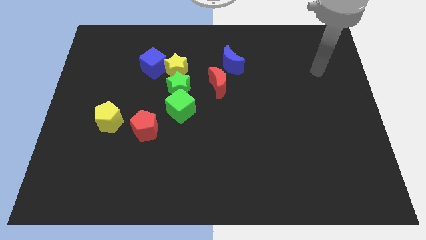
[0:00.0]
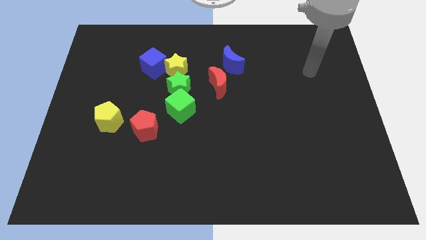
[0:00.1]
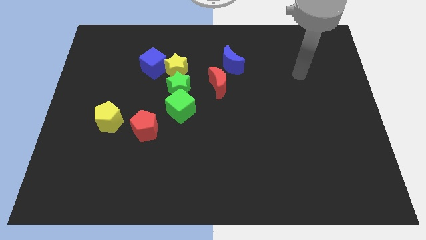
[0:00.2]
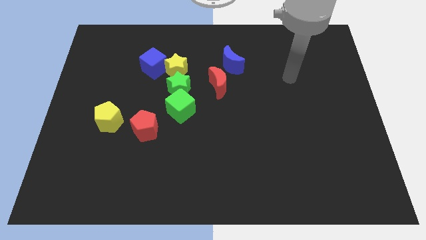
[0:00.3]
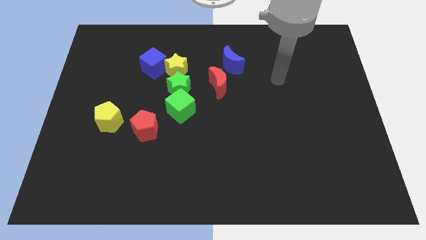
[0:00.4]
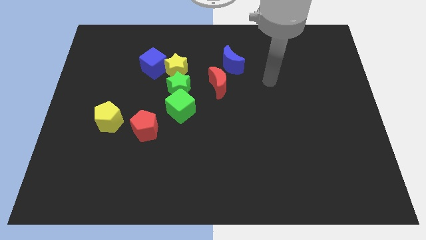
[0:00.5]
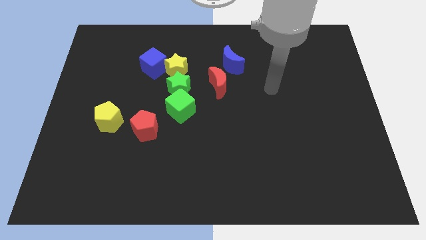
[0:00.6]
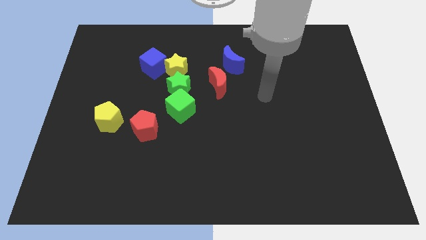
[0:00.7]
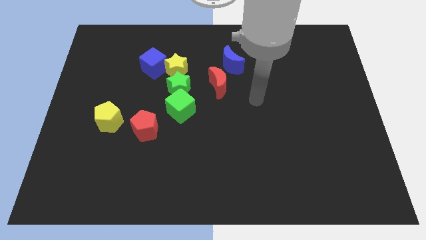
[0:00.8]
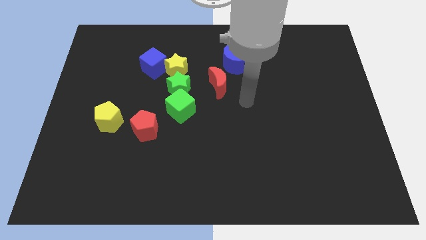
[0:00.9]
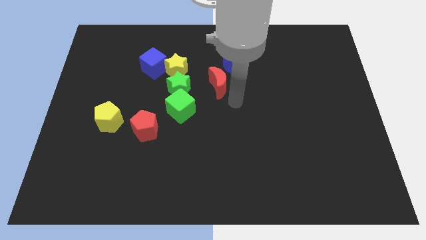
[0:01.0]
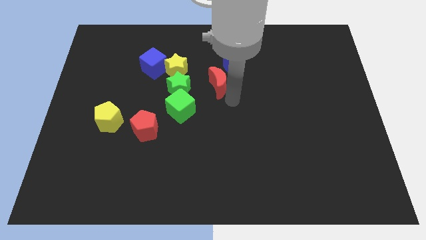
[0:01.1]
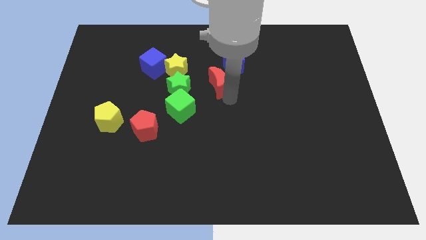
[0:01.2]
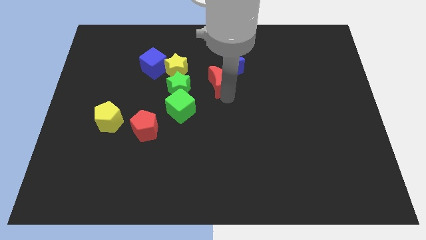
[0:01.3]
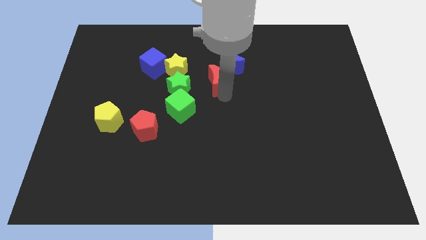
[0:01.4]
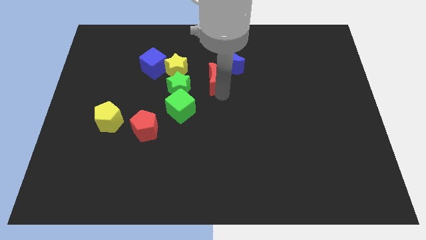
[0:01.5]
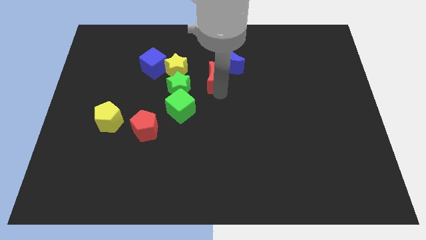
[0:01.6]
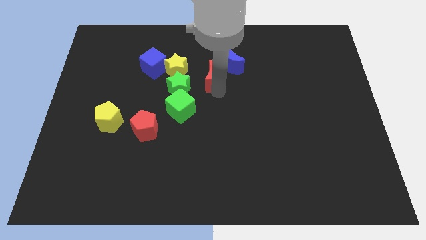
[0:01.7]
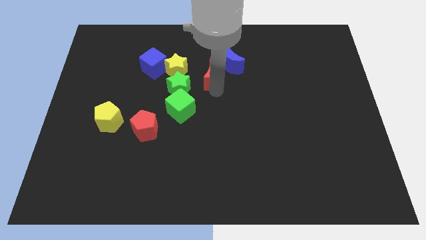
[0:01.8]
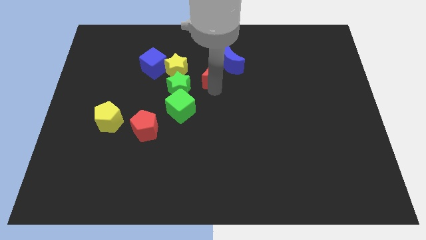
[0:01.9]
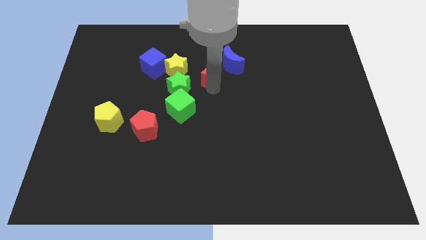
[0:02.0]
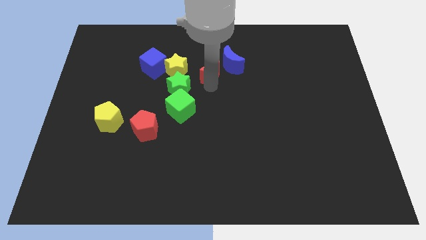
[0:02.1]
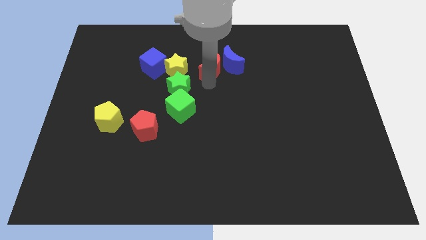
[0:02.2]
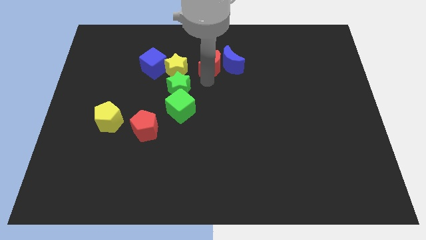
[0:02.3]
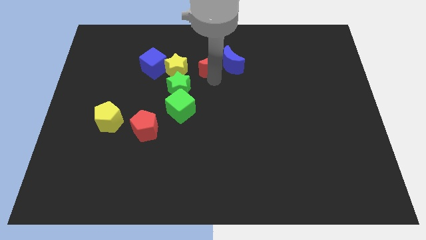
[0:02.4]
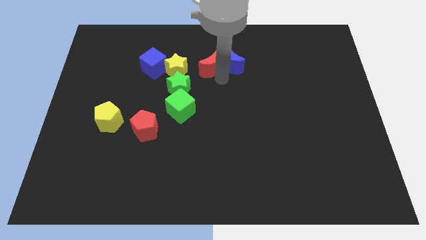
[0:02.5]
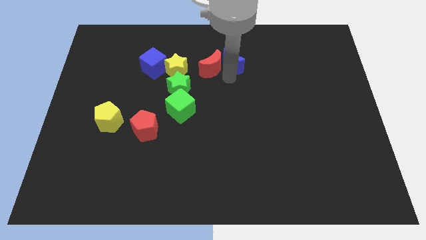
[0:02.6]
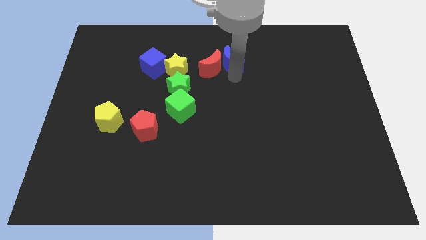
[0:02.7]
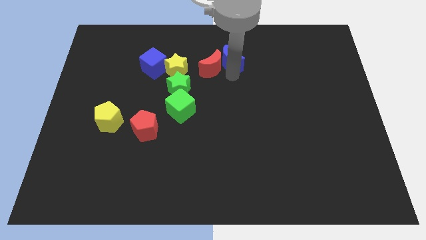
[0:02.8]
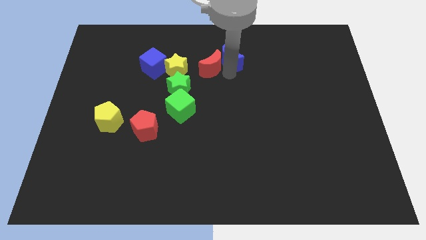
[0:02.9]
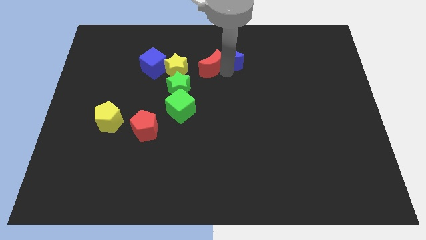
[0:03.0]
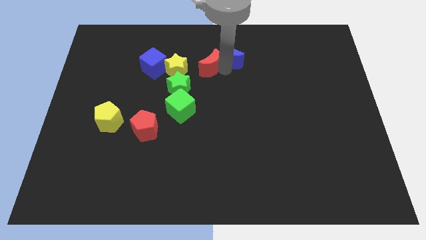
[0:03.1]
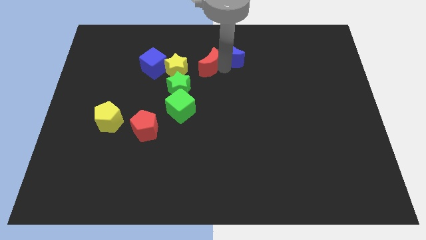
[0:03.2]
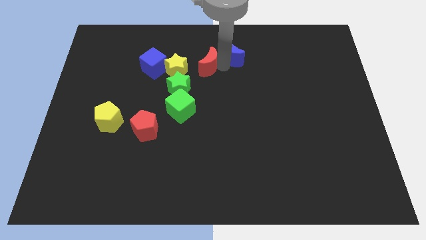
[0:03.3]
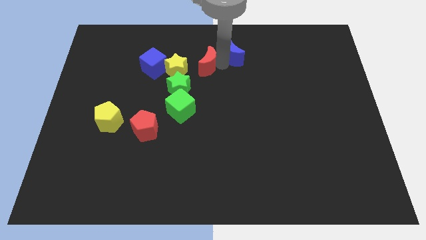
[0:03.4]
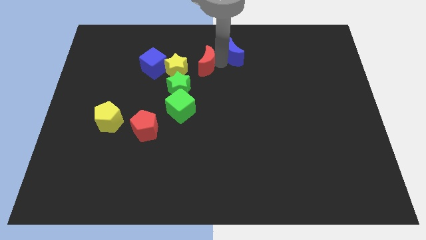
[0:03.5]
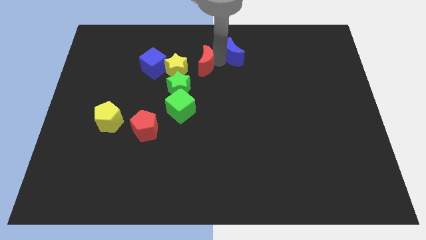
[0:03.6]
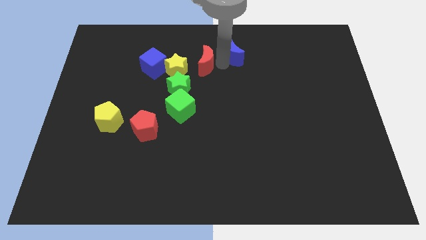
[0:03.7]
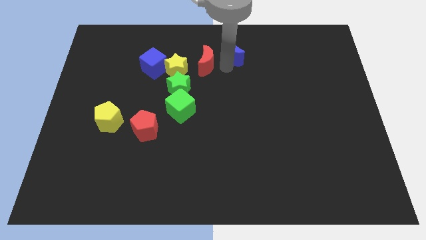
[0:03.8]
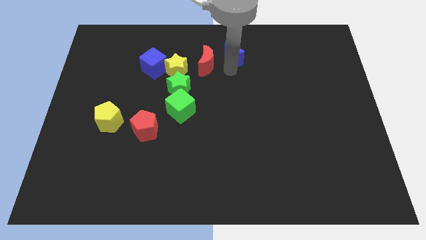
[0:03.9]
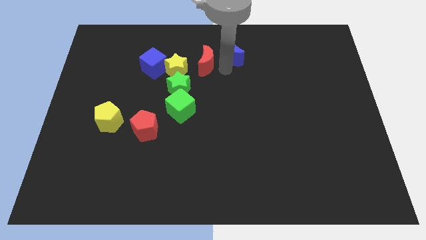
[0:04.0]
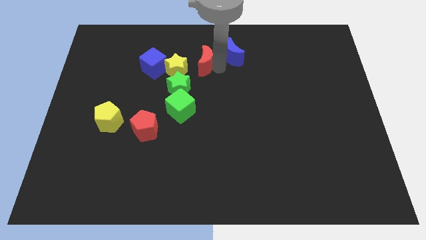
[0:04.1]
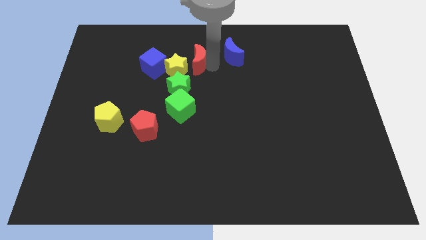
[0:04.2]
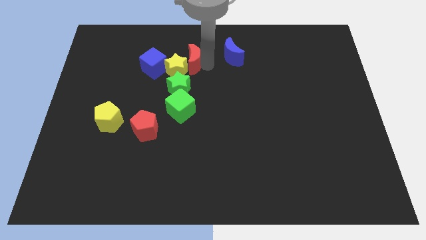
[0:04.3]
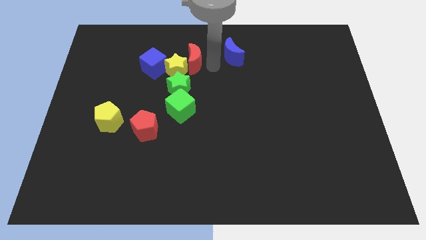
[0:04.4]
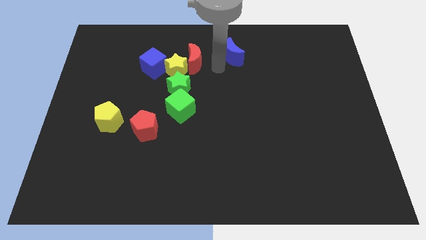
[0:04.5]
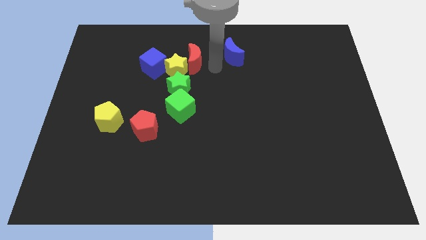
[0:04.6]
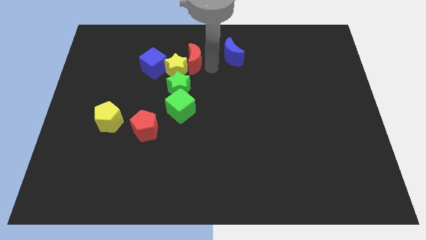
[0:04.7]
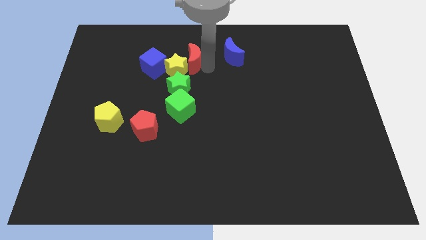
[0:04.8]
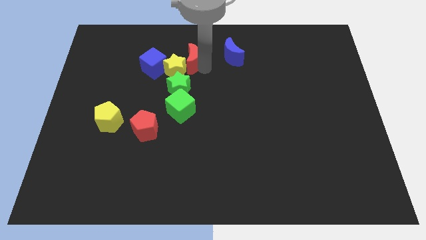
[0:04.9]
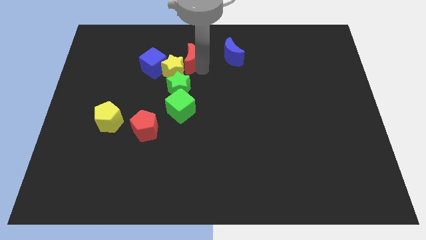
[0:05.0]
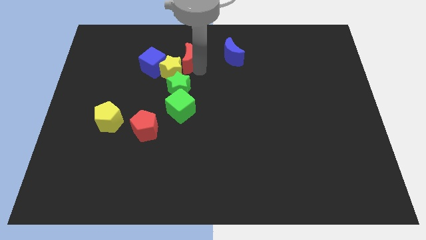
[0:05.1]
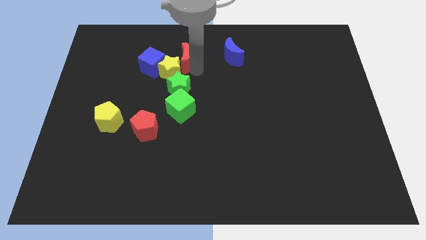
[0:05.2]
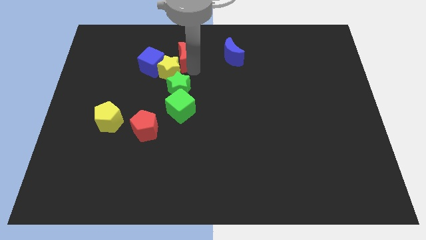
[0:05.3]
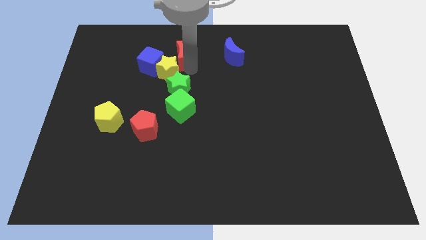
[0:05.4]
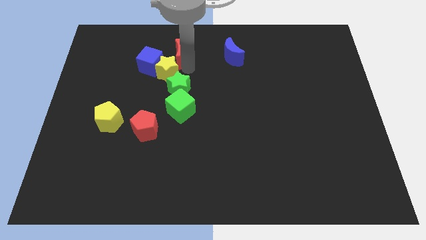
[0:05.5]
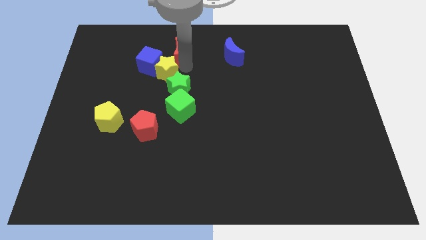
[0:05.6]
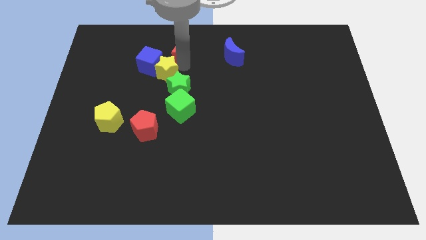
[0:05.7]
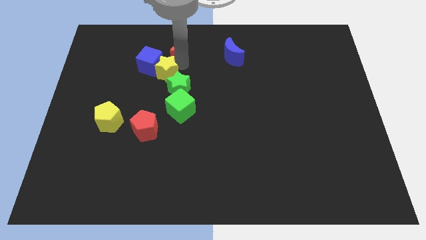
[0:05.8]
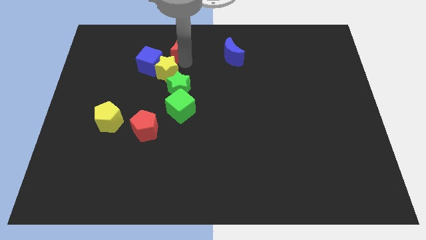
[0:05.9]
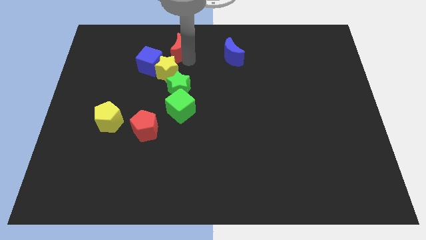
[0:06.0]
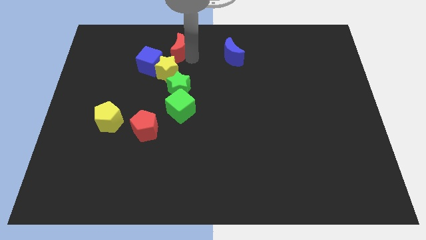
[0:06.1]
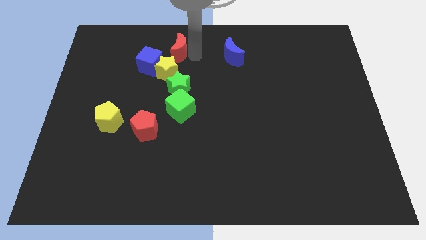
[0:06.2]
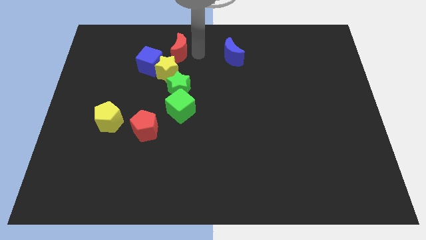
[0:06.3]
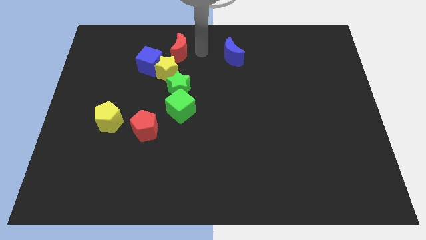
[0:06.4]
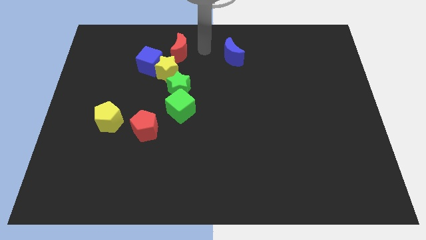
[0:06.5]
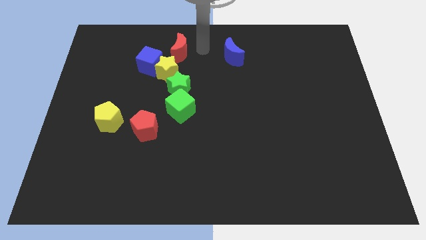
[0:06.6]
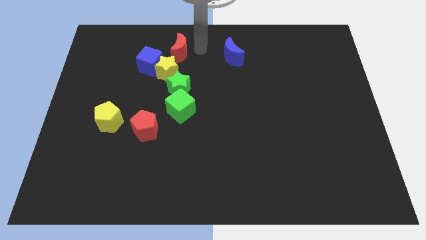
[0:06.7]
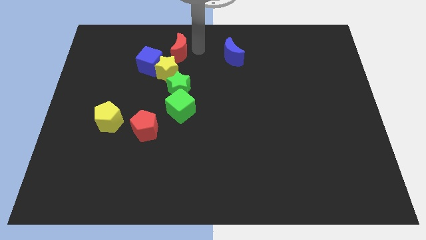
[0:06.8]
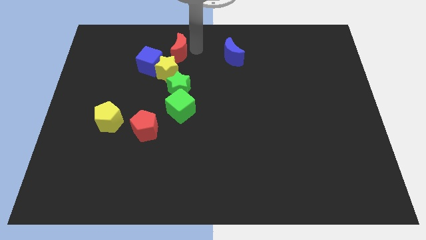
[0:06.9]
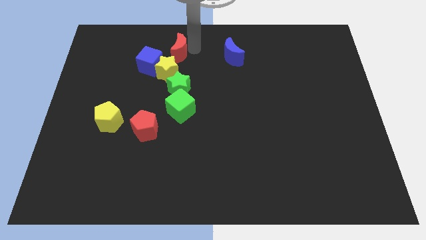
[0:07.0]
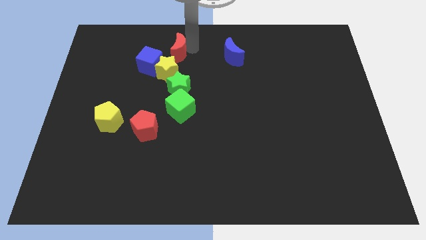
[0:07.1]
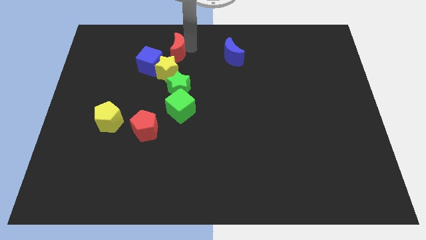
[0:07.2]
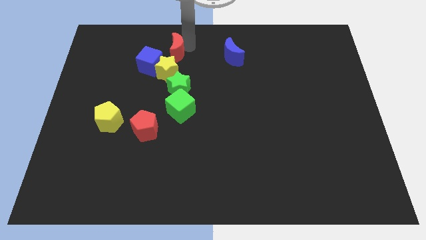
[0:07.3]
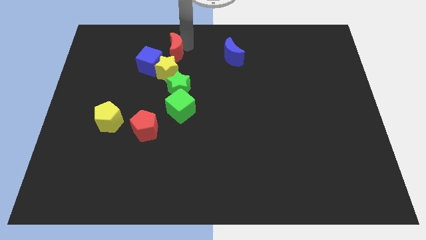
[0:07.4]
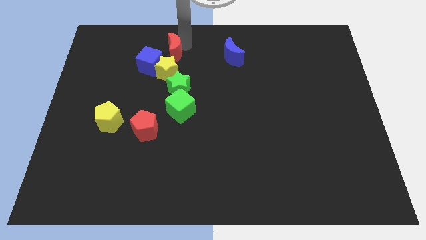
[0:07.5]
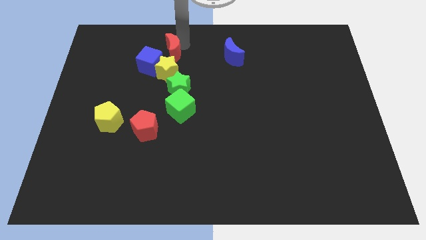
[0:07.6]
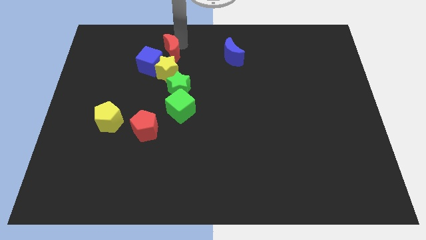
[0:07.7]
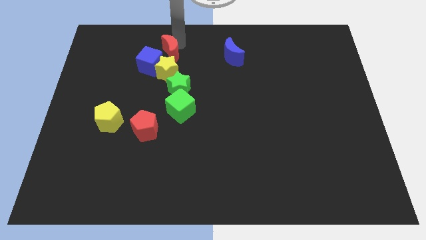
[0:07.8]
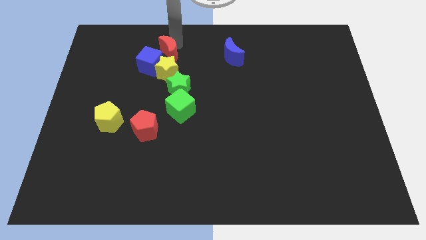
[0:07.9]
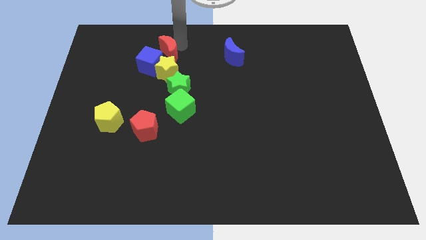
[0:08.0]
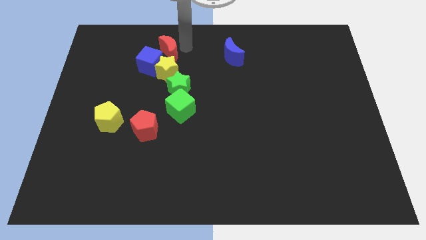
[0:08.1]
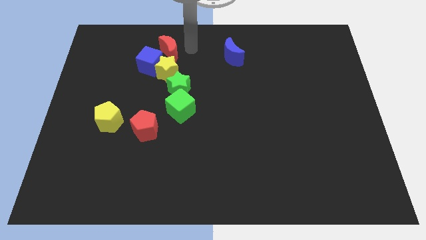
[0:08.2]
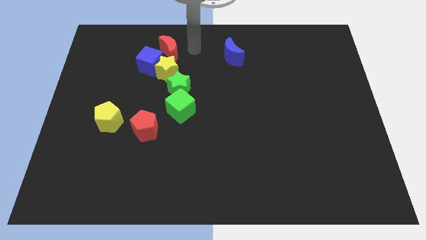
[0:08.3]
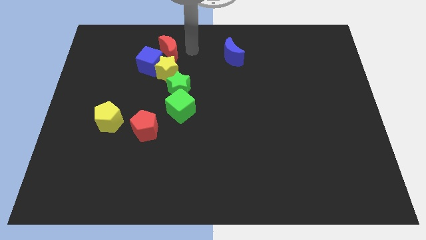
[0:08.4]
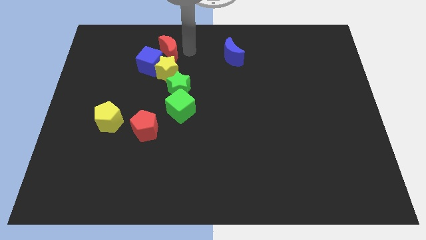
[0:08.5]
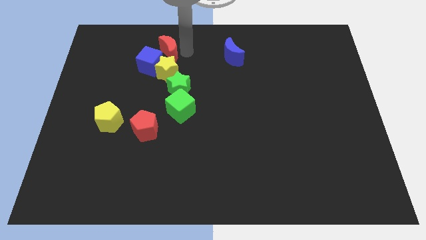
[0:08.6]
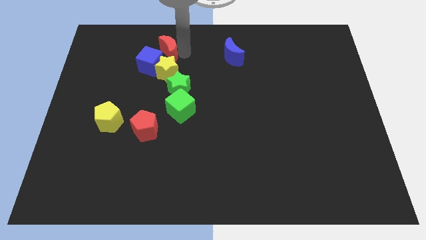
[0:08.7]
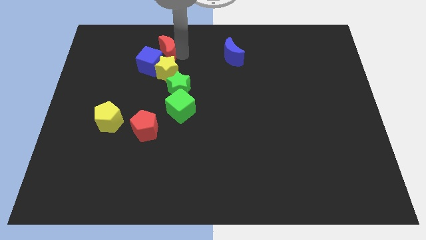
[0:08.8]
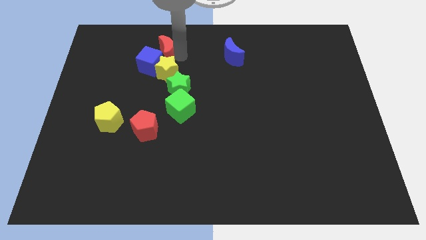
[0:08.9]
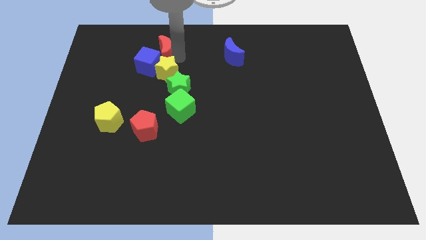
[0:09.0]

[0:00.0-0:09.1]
slightly slide the red moon to the left
